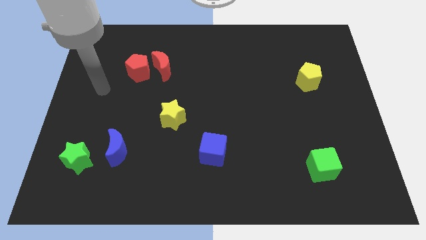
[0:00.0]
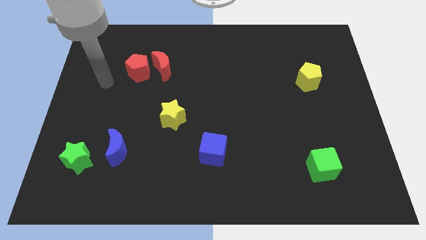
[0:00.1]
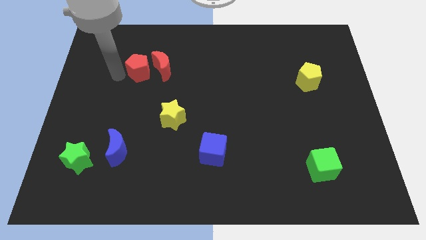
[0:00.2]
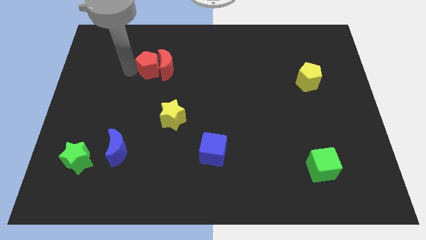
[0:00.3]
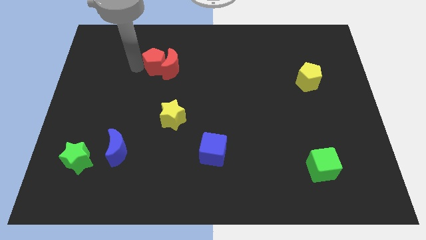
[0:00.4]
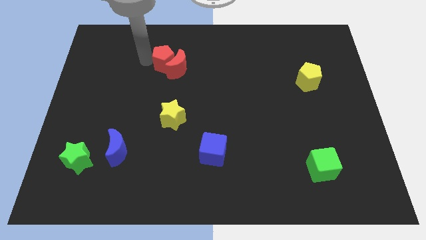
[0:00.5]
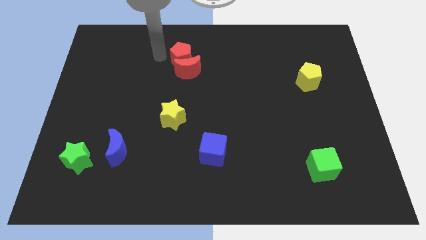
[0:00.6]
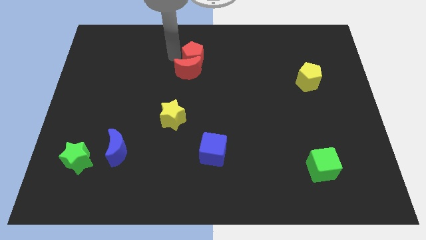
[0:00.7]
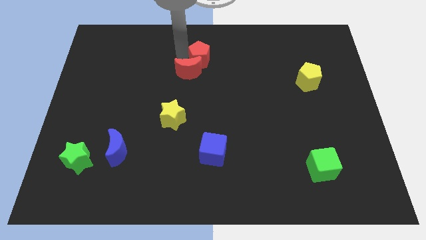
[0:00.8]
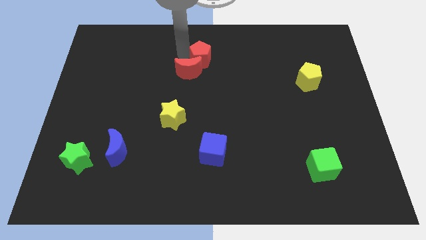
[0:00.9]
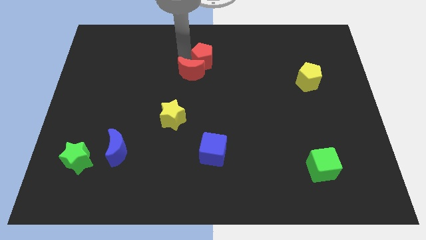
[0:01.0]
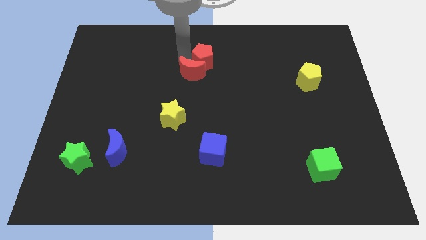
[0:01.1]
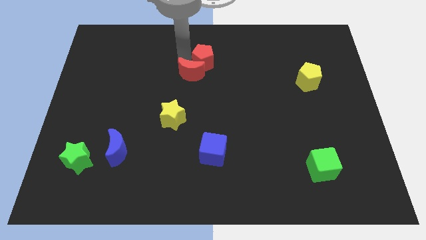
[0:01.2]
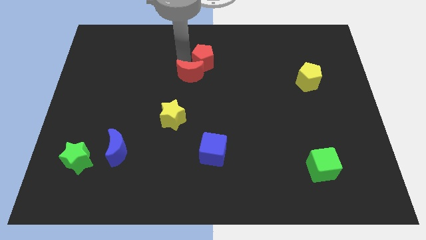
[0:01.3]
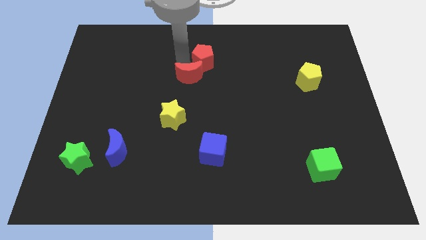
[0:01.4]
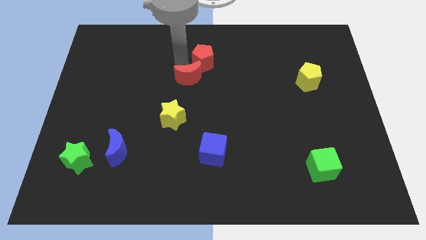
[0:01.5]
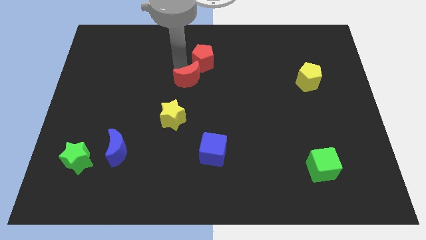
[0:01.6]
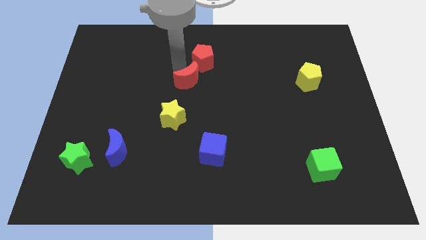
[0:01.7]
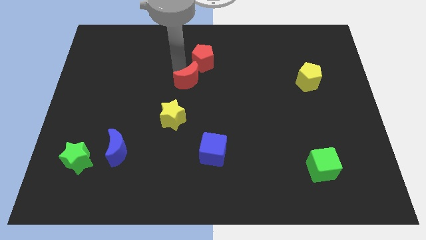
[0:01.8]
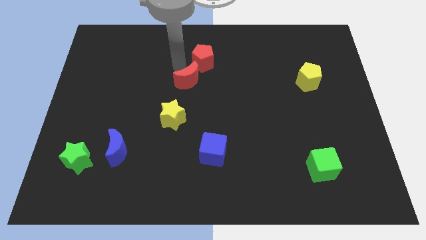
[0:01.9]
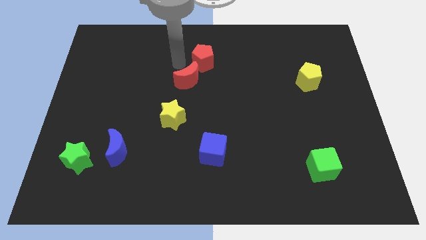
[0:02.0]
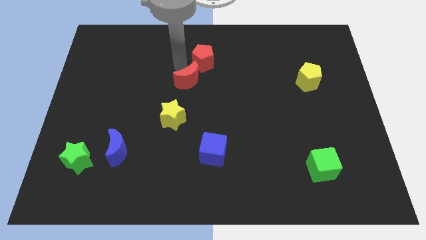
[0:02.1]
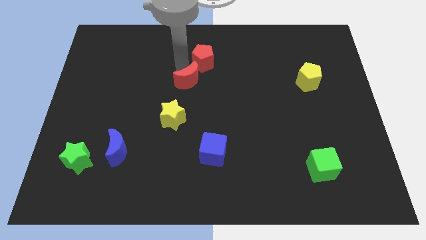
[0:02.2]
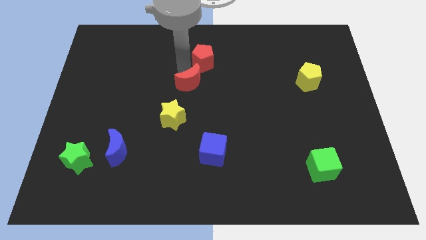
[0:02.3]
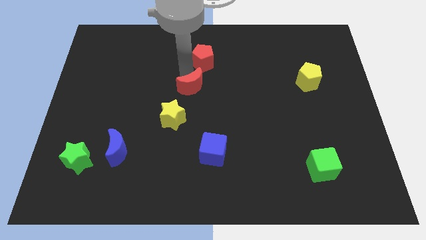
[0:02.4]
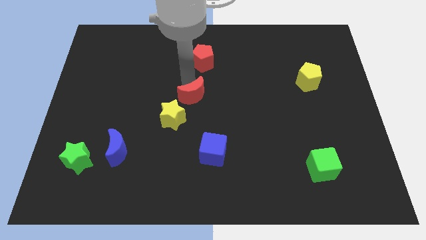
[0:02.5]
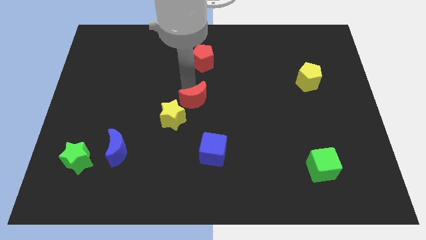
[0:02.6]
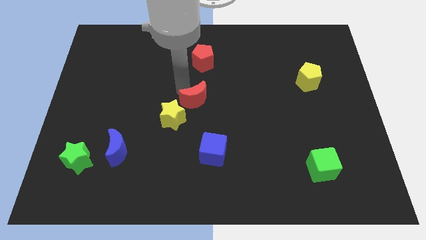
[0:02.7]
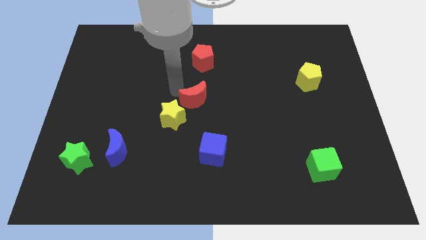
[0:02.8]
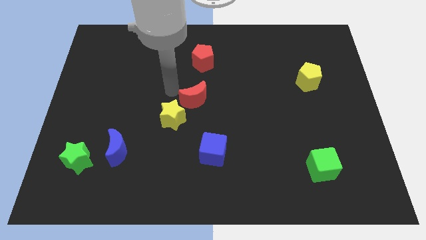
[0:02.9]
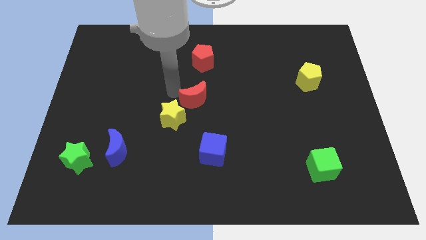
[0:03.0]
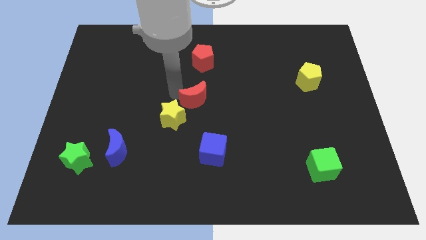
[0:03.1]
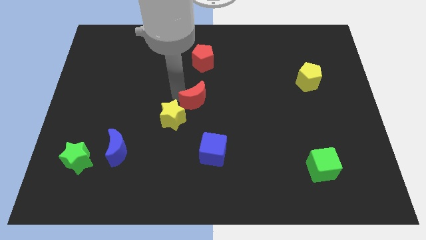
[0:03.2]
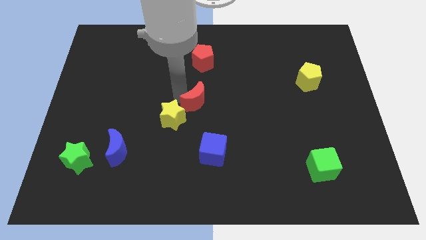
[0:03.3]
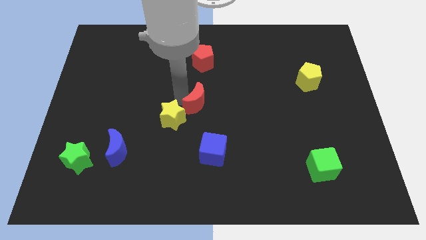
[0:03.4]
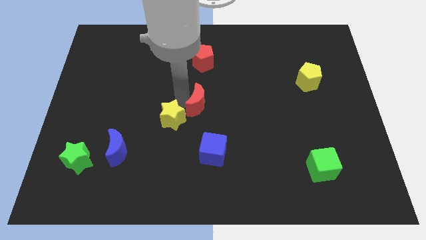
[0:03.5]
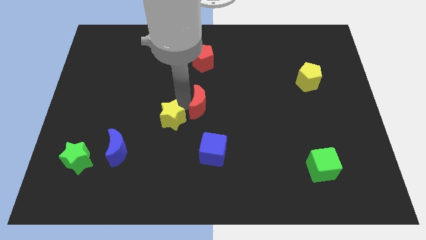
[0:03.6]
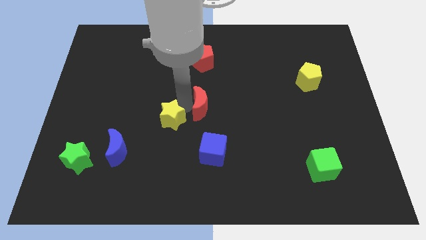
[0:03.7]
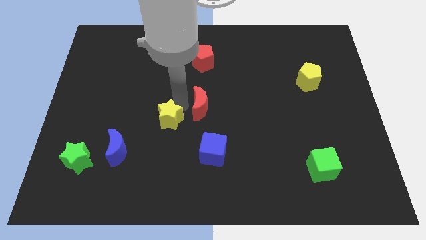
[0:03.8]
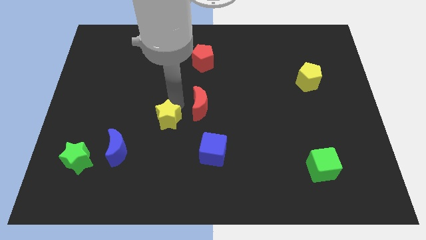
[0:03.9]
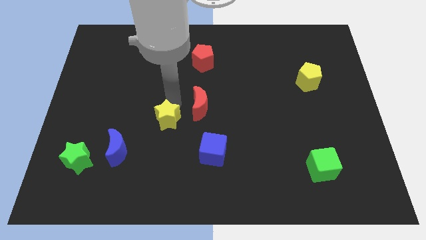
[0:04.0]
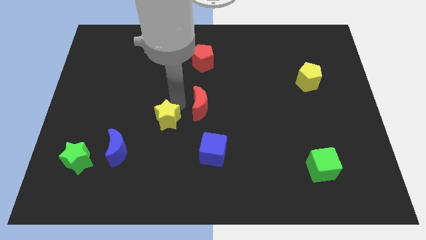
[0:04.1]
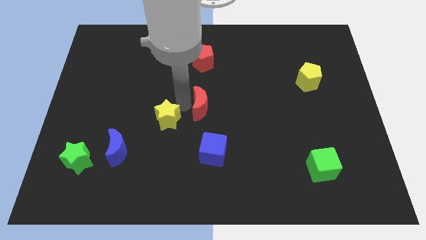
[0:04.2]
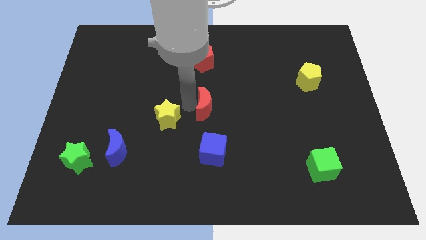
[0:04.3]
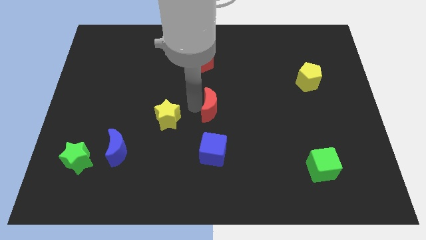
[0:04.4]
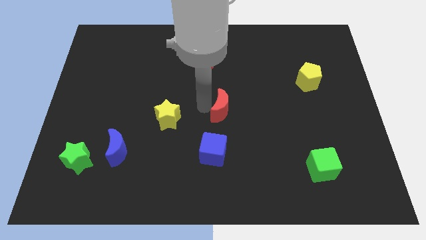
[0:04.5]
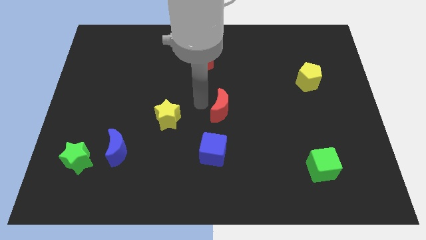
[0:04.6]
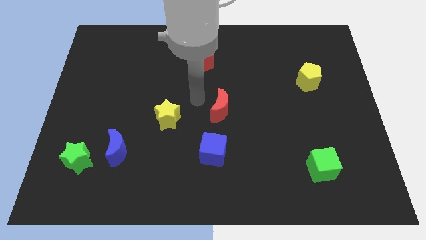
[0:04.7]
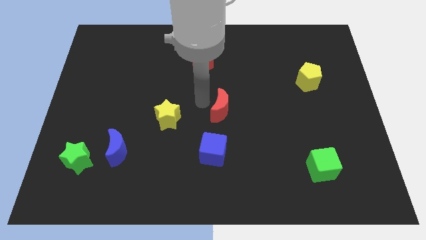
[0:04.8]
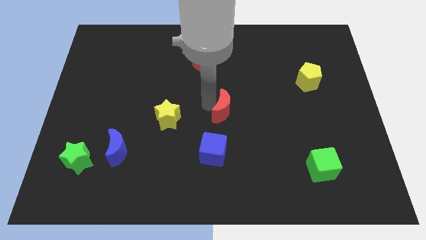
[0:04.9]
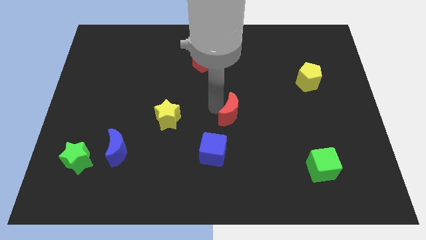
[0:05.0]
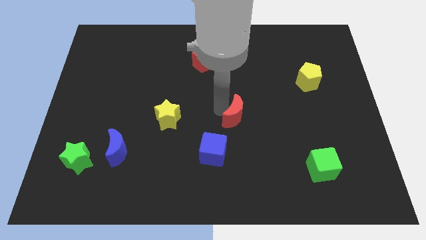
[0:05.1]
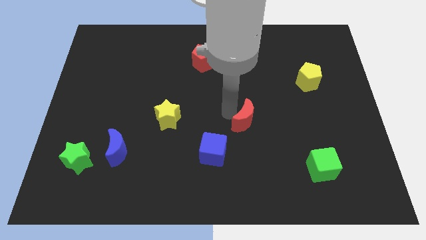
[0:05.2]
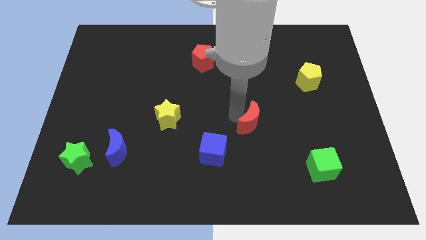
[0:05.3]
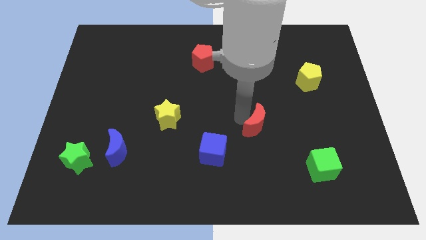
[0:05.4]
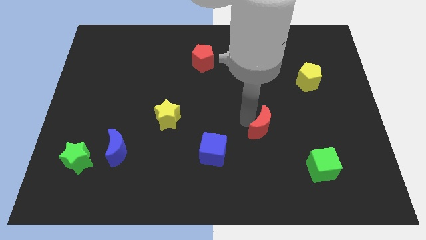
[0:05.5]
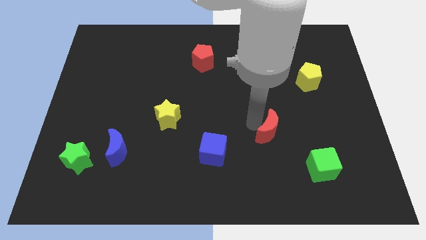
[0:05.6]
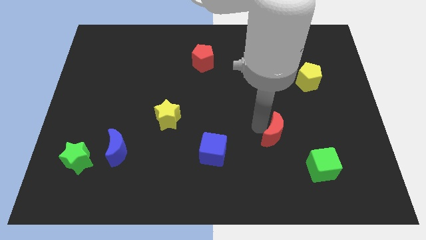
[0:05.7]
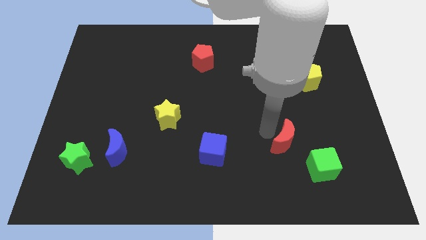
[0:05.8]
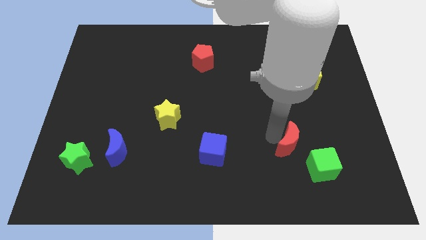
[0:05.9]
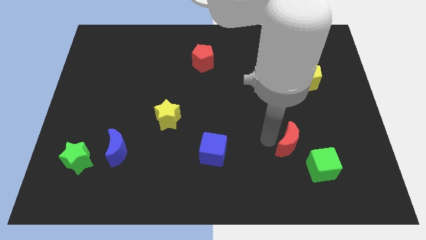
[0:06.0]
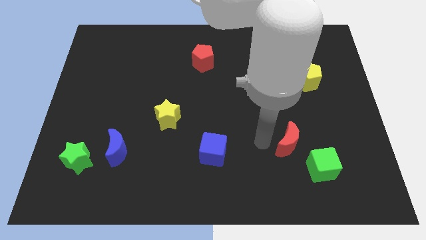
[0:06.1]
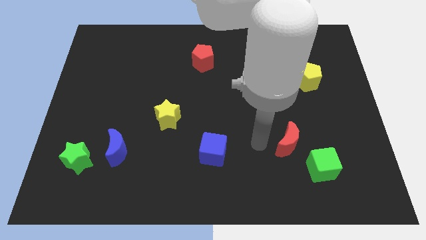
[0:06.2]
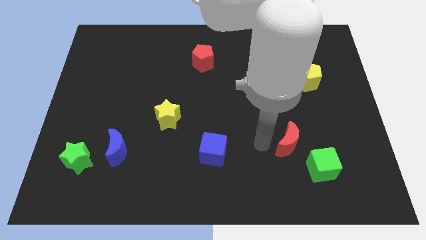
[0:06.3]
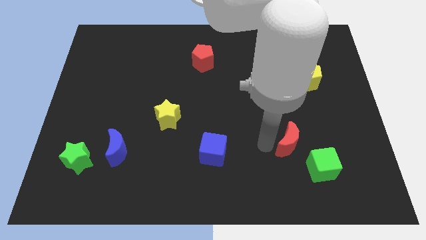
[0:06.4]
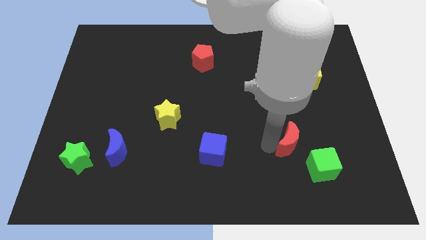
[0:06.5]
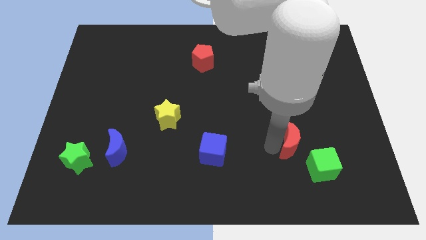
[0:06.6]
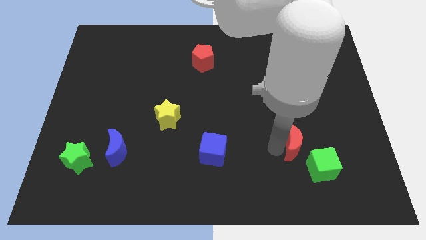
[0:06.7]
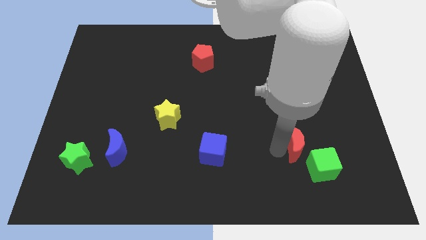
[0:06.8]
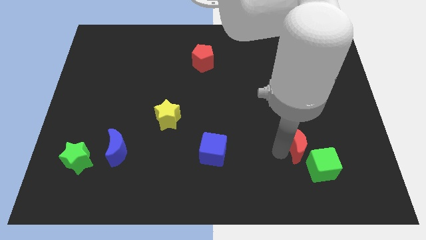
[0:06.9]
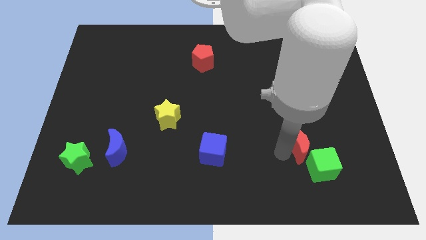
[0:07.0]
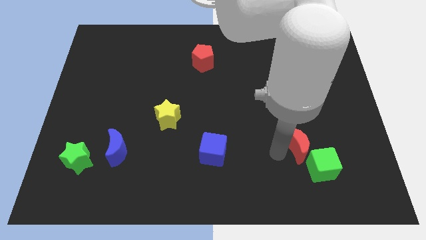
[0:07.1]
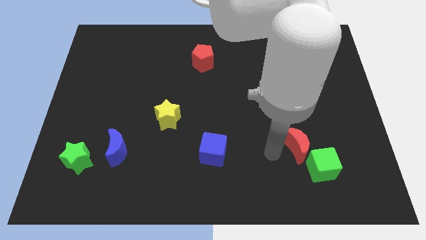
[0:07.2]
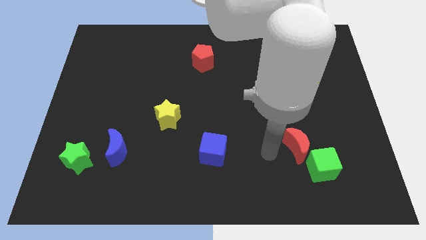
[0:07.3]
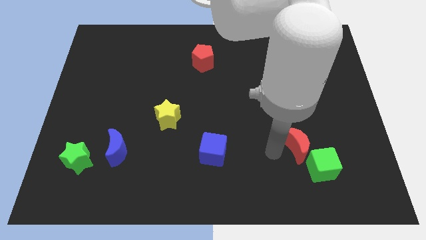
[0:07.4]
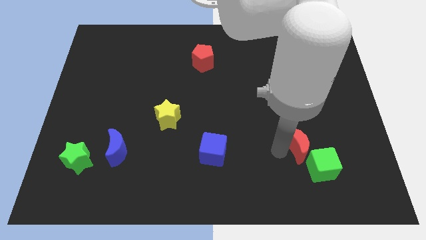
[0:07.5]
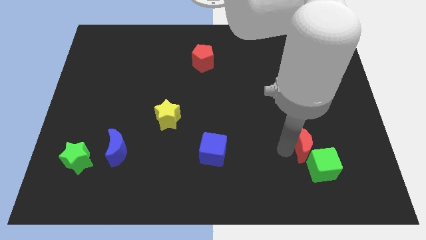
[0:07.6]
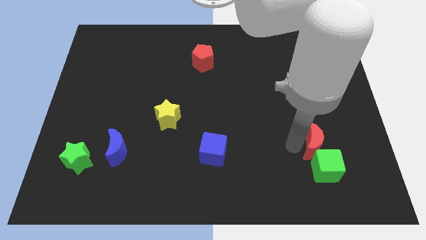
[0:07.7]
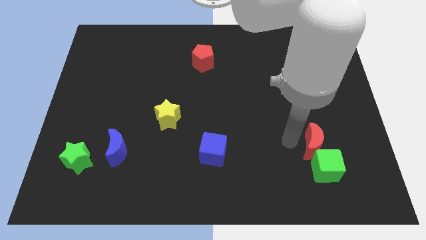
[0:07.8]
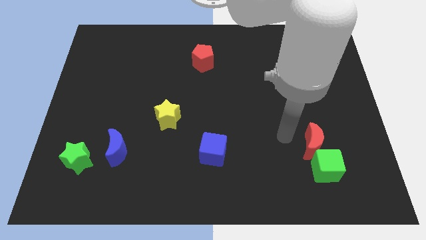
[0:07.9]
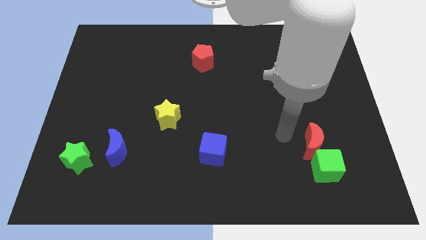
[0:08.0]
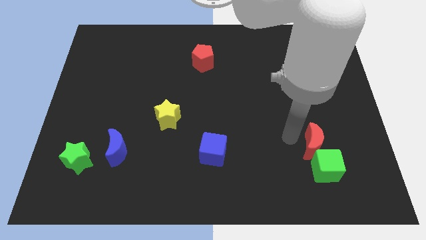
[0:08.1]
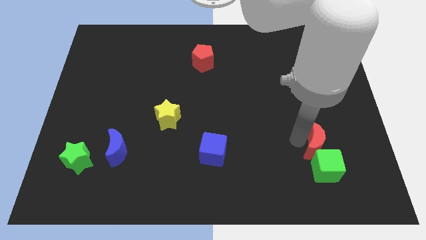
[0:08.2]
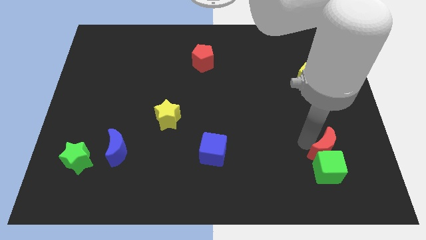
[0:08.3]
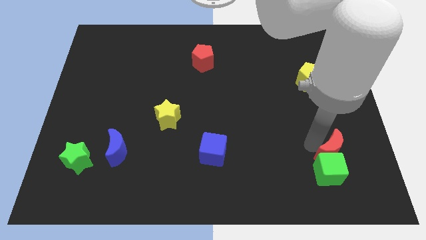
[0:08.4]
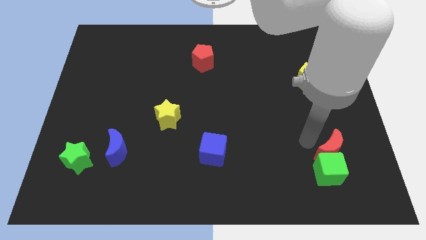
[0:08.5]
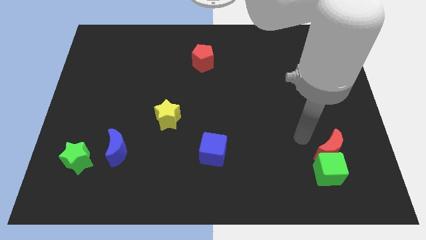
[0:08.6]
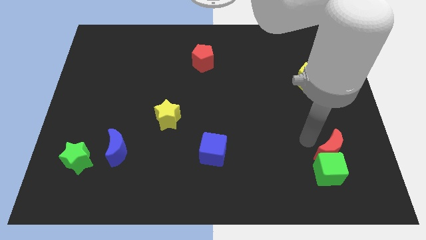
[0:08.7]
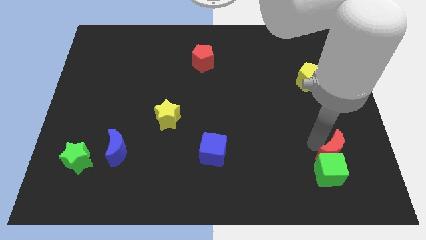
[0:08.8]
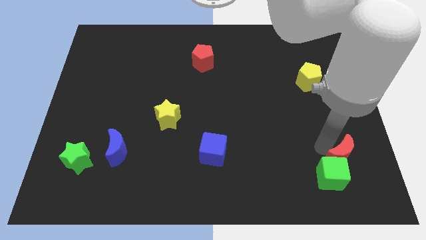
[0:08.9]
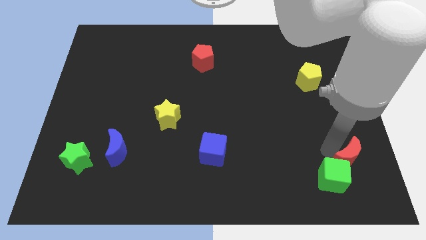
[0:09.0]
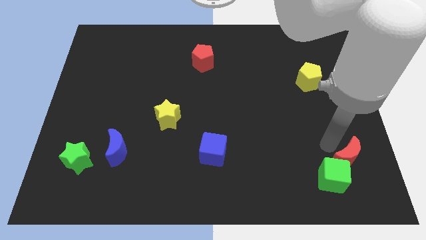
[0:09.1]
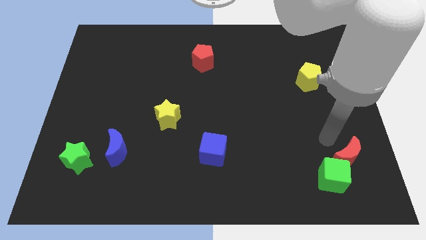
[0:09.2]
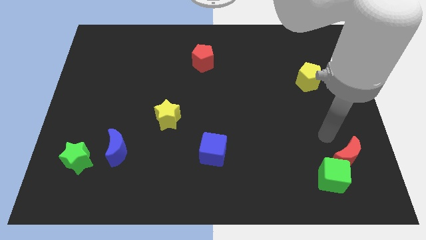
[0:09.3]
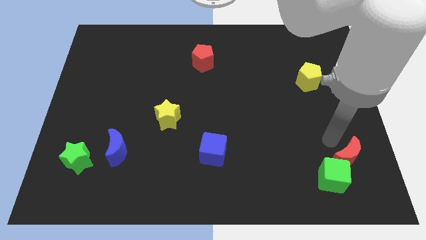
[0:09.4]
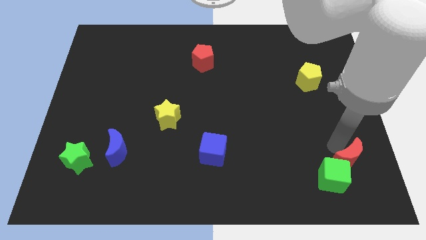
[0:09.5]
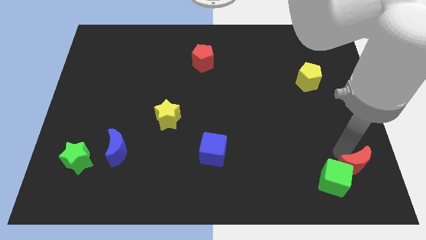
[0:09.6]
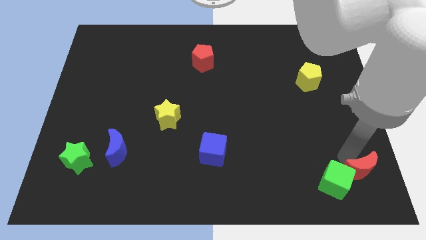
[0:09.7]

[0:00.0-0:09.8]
slide the red moon to the bottom right of the board
